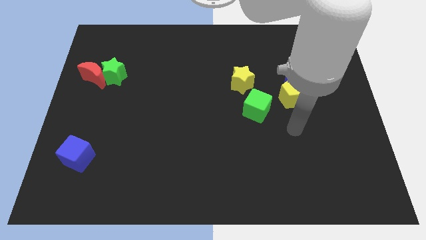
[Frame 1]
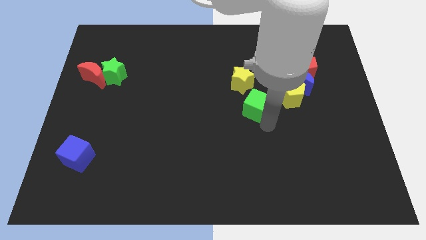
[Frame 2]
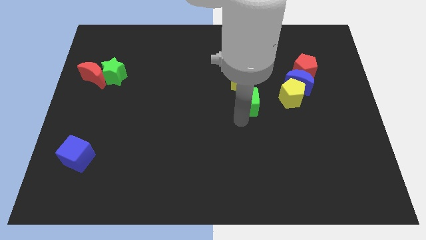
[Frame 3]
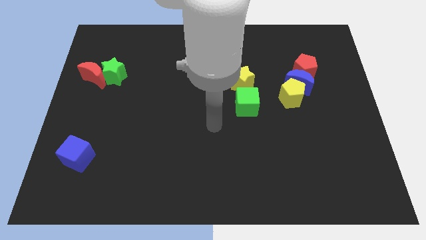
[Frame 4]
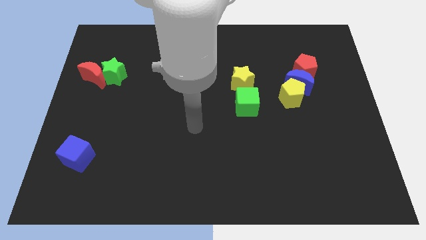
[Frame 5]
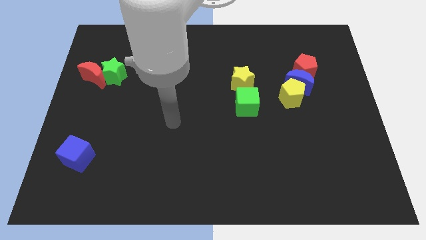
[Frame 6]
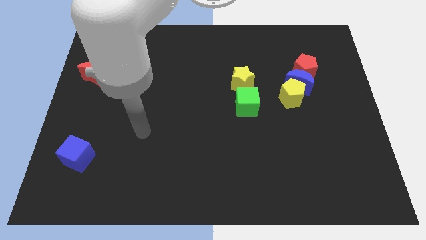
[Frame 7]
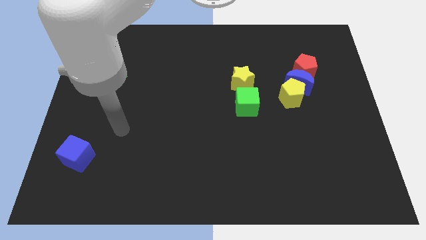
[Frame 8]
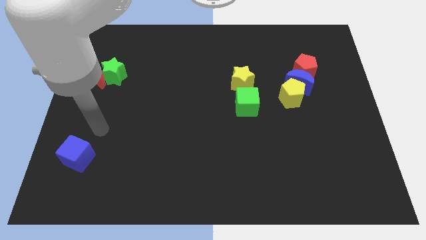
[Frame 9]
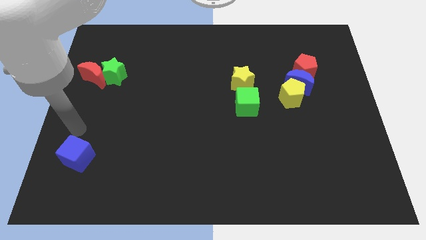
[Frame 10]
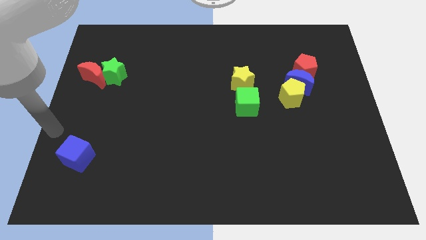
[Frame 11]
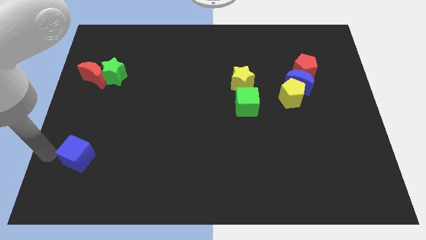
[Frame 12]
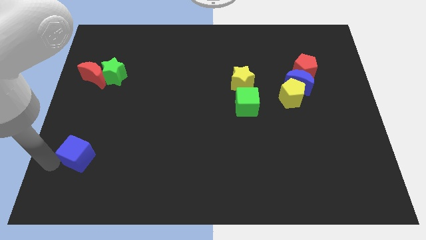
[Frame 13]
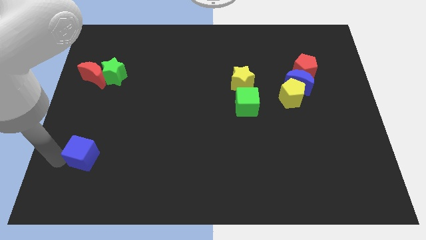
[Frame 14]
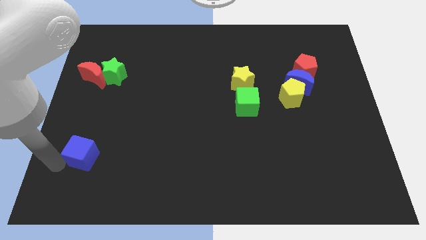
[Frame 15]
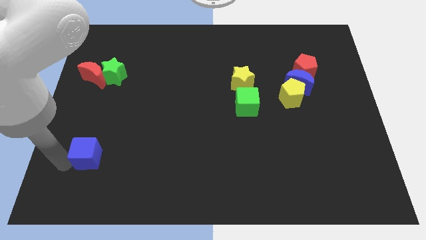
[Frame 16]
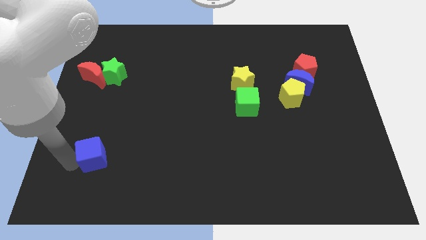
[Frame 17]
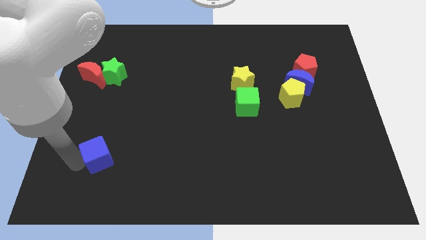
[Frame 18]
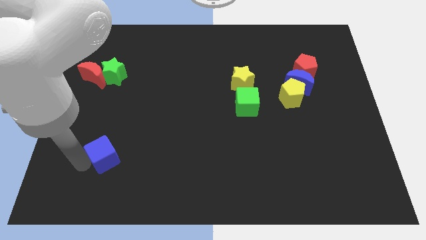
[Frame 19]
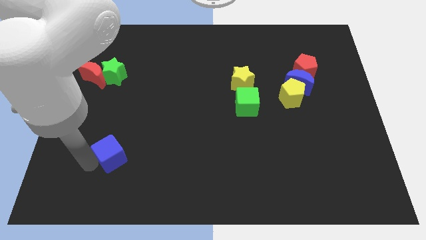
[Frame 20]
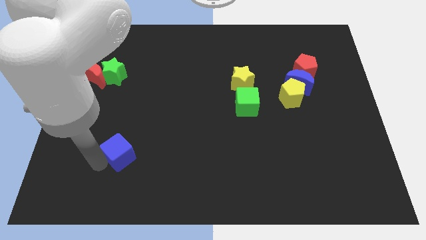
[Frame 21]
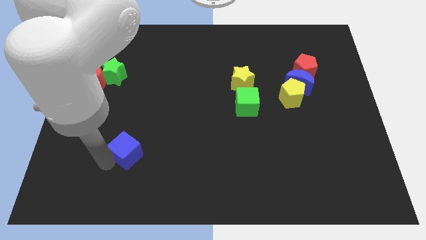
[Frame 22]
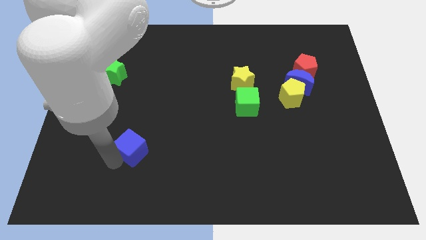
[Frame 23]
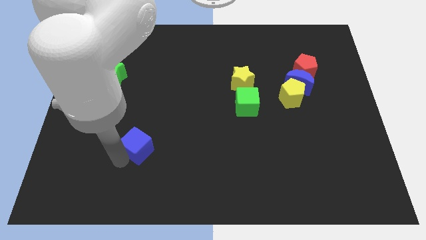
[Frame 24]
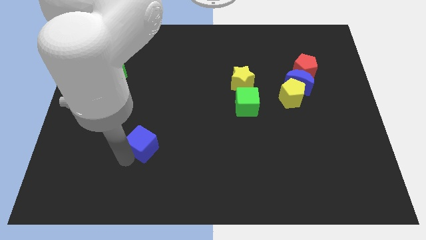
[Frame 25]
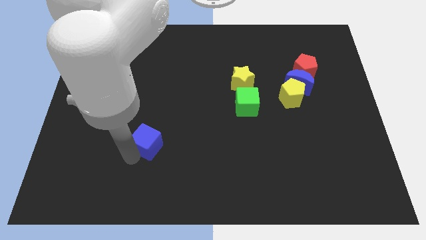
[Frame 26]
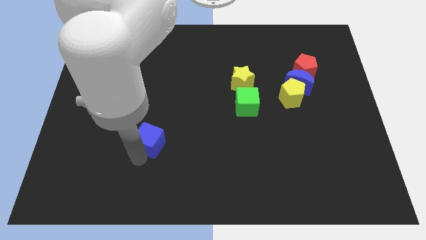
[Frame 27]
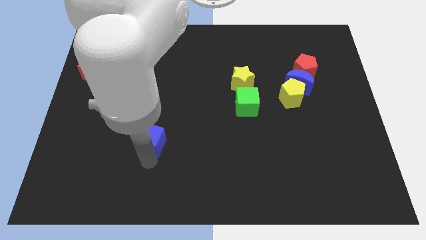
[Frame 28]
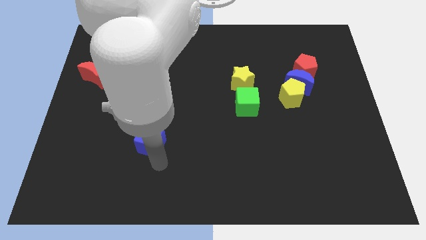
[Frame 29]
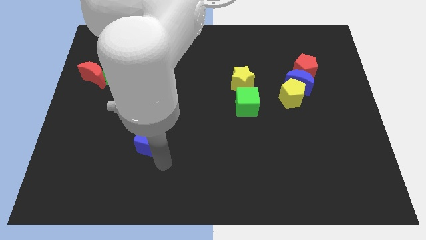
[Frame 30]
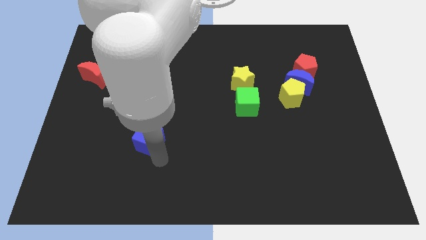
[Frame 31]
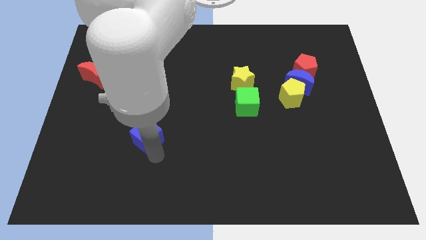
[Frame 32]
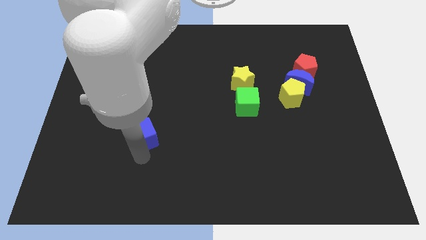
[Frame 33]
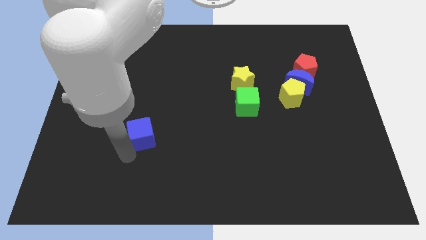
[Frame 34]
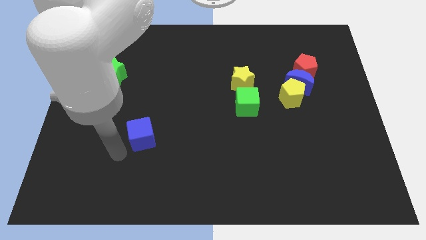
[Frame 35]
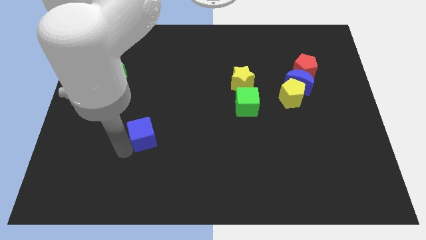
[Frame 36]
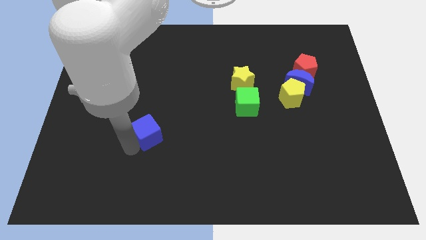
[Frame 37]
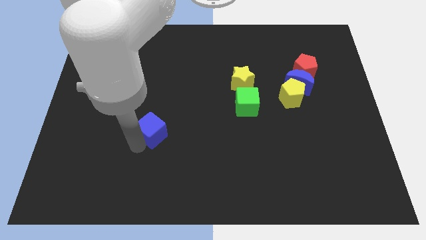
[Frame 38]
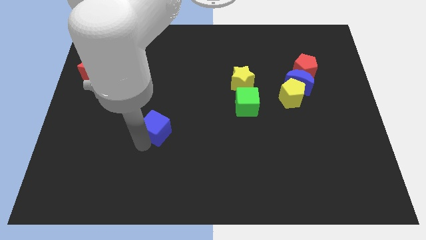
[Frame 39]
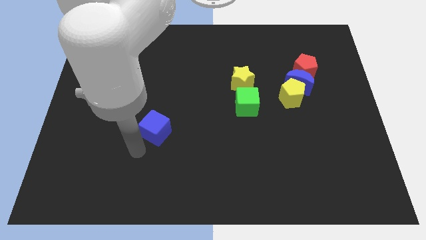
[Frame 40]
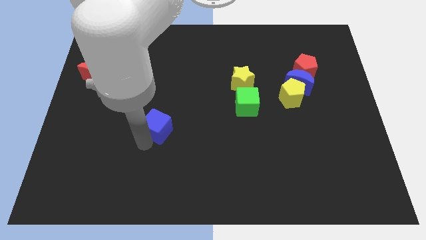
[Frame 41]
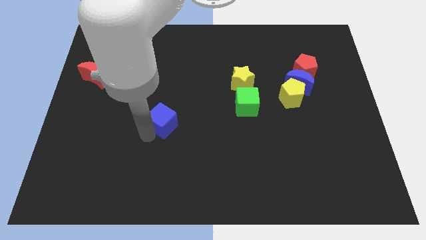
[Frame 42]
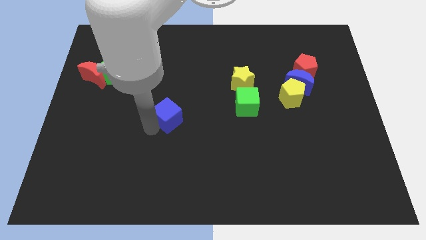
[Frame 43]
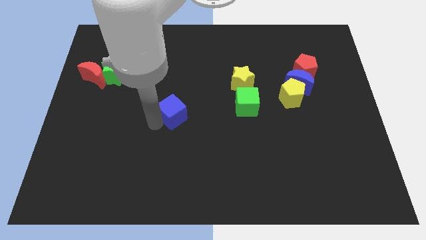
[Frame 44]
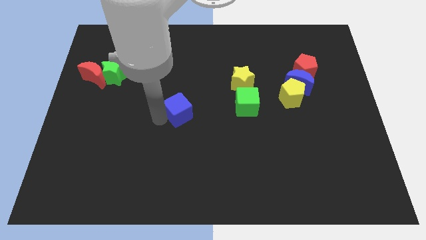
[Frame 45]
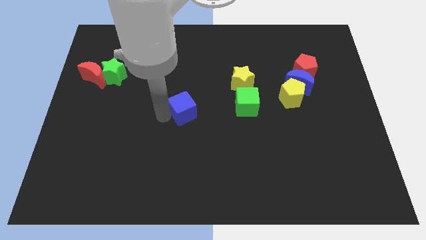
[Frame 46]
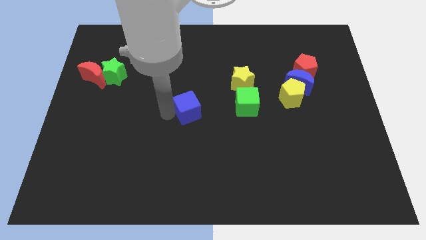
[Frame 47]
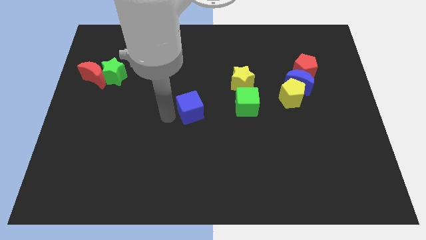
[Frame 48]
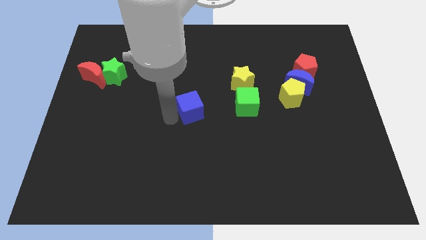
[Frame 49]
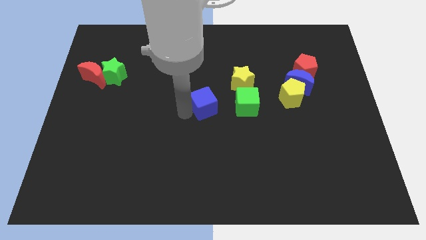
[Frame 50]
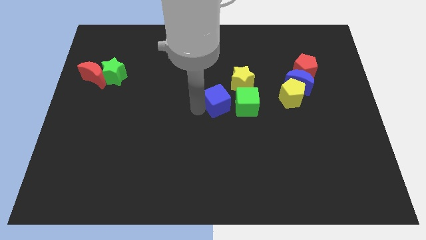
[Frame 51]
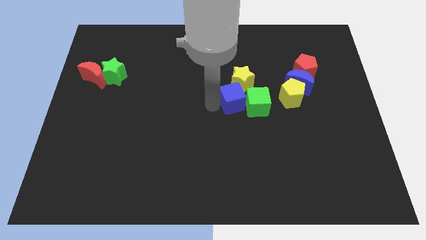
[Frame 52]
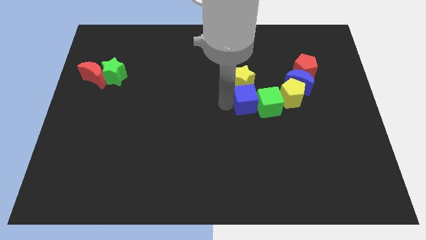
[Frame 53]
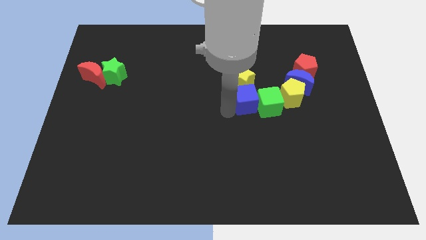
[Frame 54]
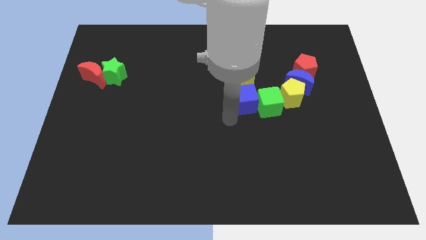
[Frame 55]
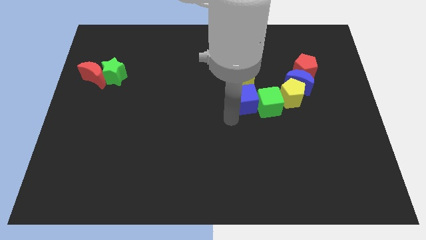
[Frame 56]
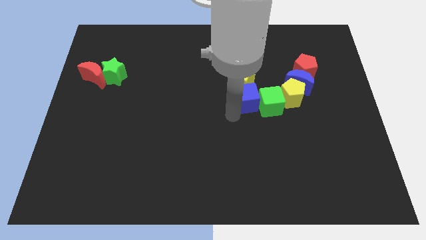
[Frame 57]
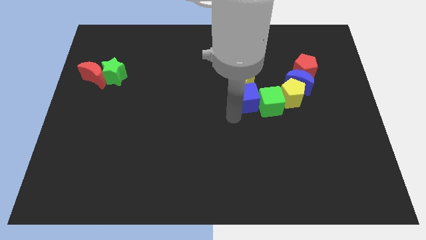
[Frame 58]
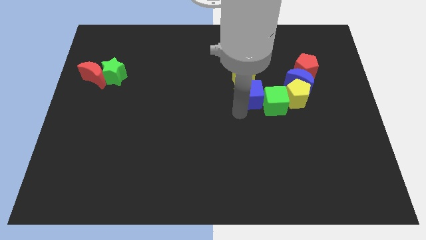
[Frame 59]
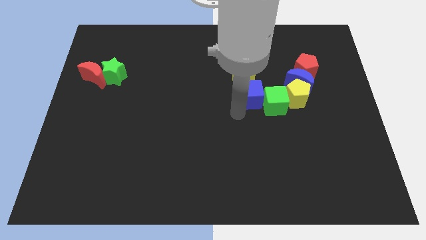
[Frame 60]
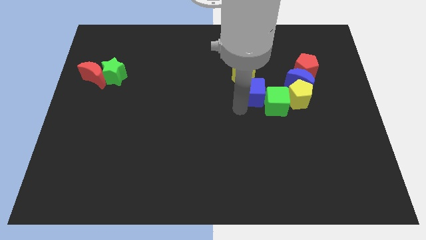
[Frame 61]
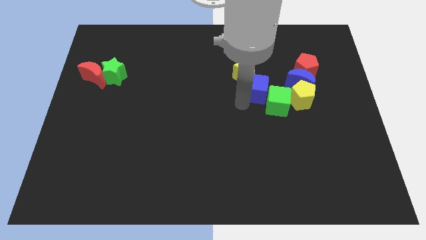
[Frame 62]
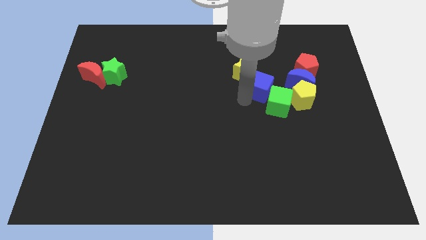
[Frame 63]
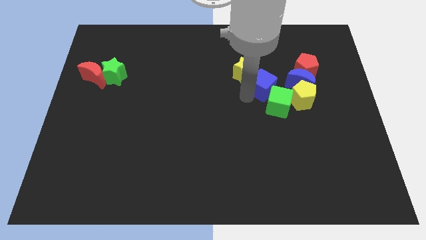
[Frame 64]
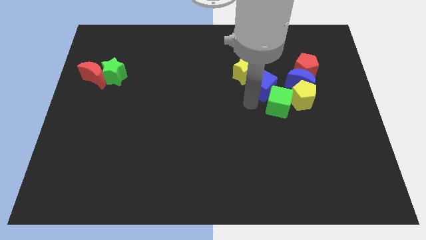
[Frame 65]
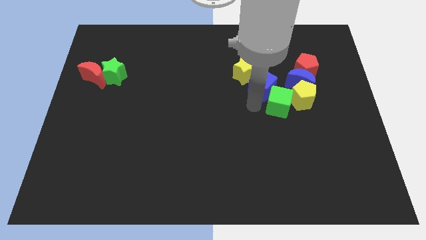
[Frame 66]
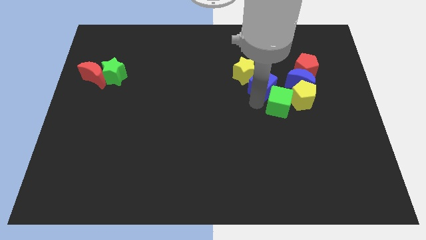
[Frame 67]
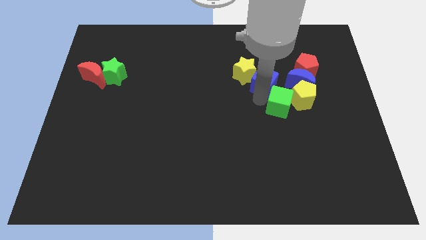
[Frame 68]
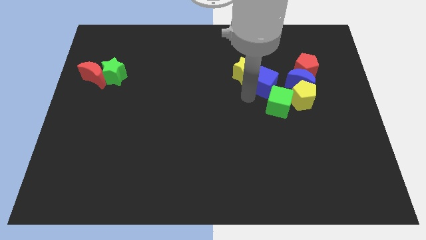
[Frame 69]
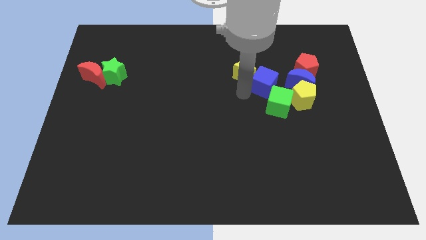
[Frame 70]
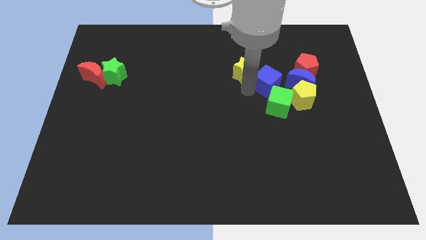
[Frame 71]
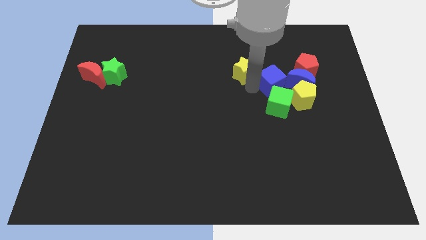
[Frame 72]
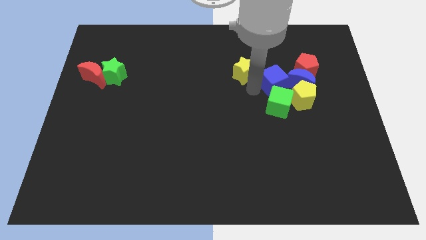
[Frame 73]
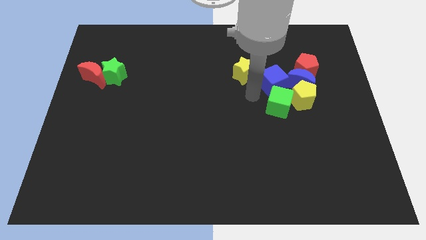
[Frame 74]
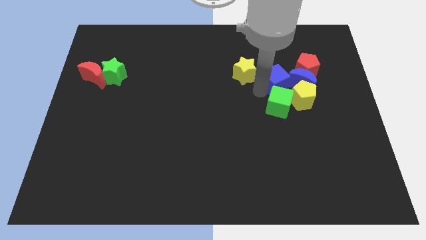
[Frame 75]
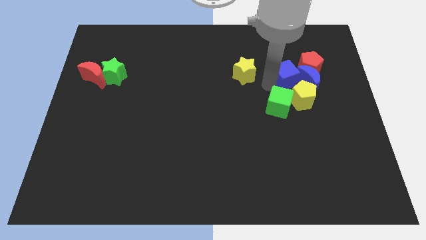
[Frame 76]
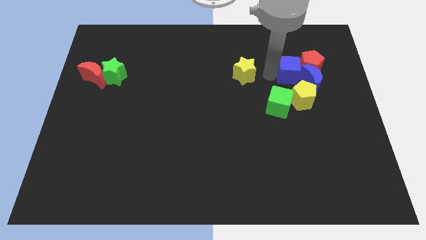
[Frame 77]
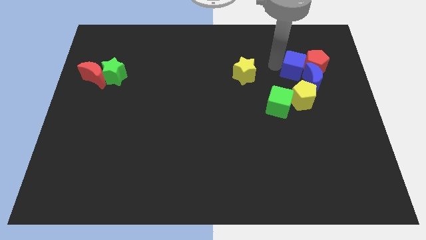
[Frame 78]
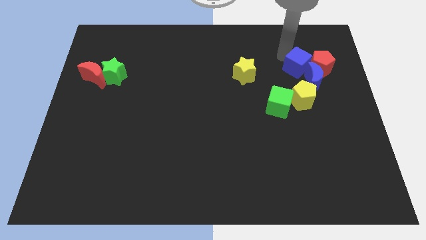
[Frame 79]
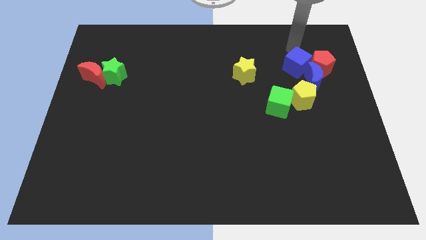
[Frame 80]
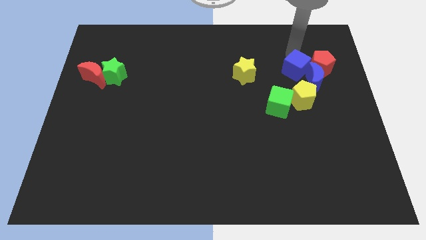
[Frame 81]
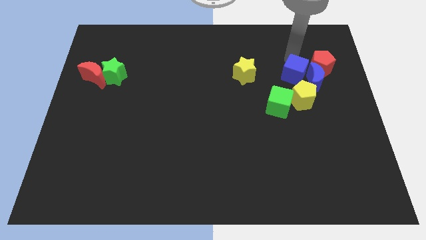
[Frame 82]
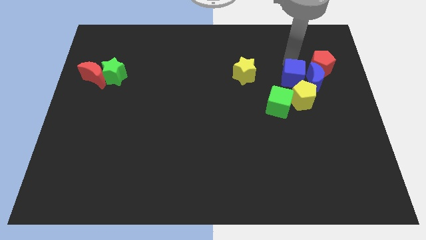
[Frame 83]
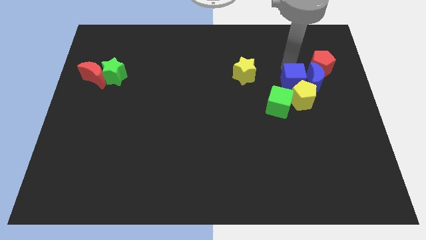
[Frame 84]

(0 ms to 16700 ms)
slide the blue cube towards the yellow pentagon
